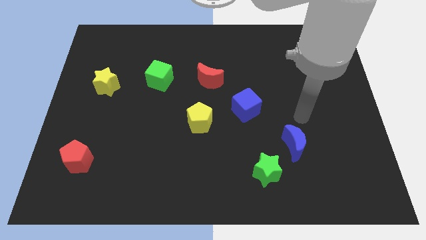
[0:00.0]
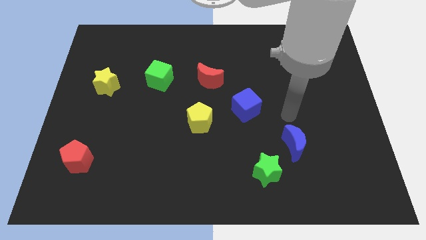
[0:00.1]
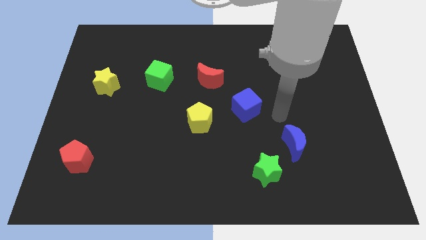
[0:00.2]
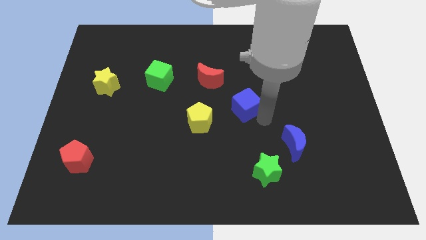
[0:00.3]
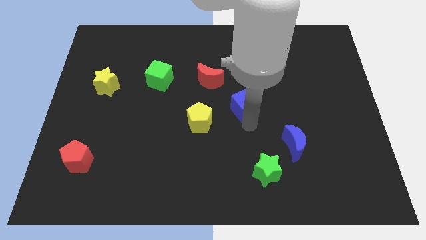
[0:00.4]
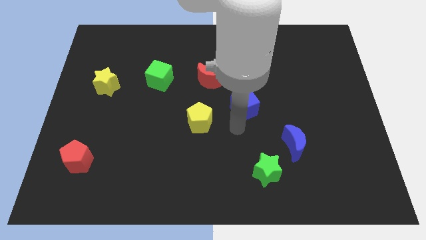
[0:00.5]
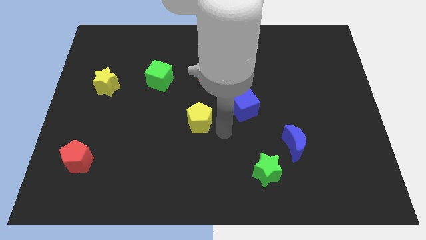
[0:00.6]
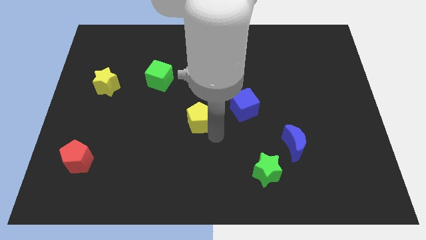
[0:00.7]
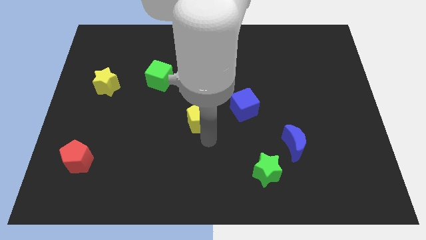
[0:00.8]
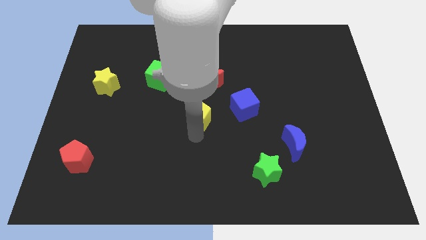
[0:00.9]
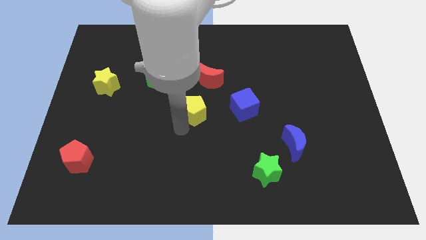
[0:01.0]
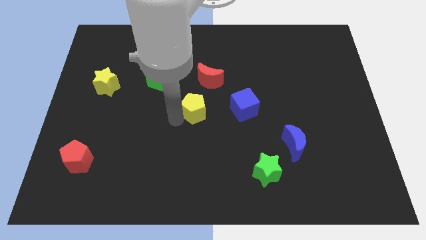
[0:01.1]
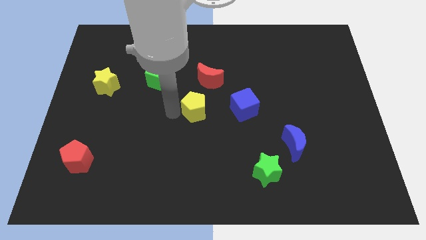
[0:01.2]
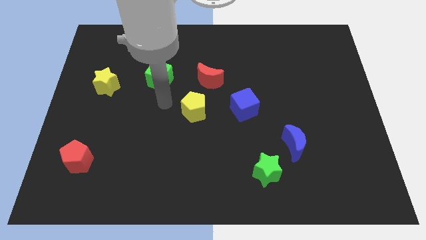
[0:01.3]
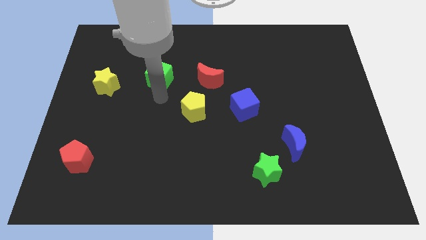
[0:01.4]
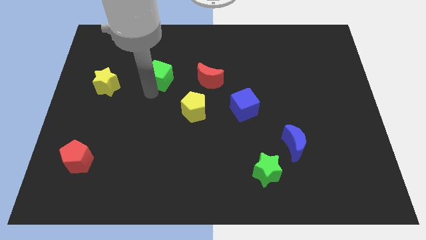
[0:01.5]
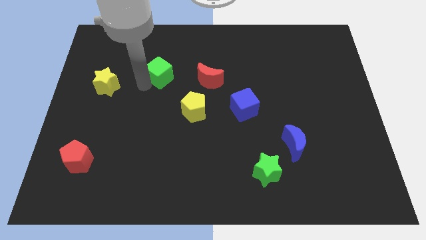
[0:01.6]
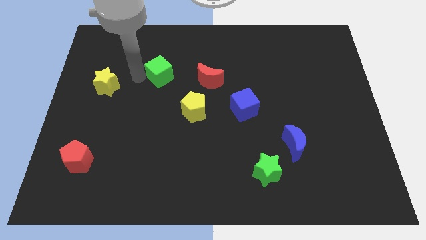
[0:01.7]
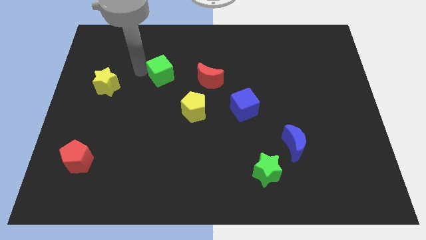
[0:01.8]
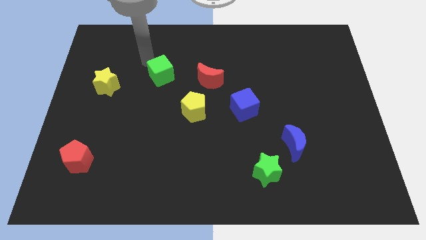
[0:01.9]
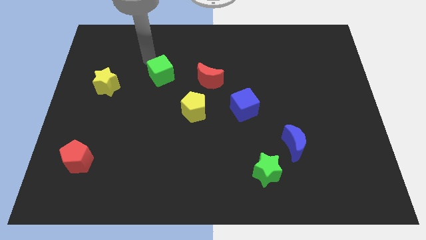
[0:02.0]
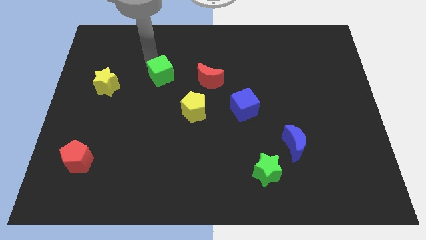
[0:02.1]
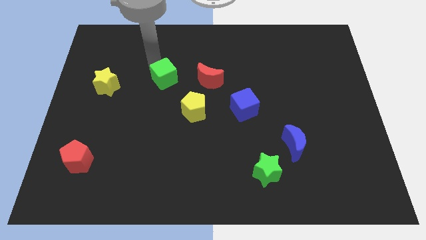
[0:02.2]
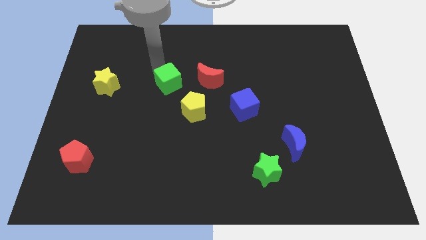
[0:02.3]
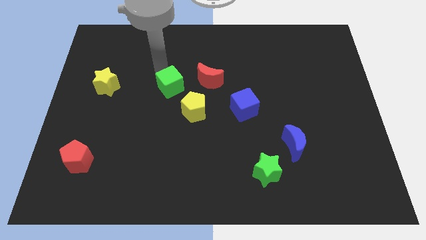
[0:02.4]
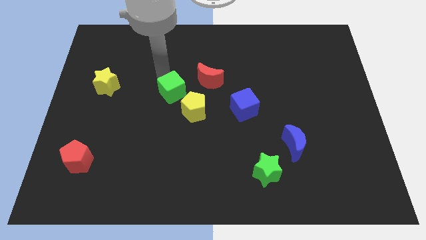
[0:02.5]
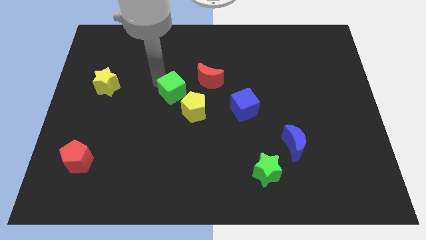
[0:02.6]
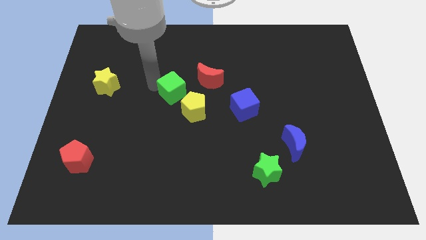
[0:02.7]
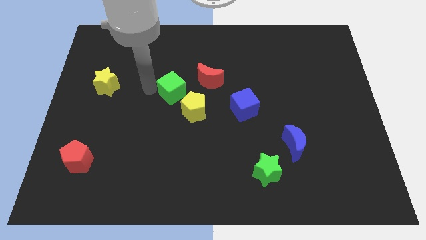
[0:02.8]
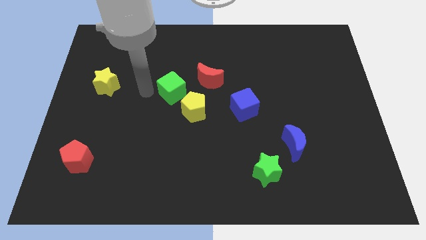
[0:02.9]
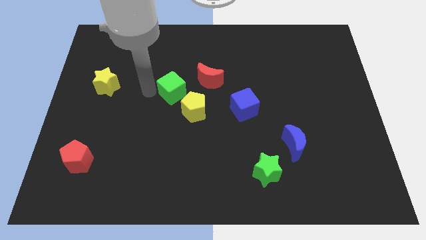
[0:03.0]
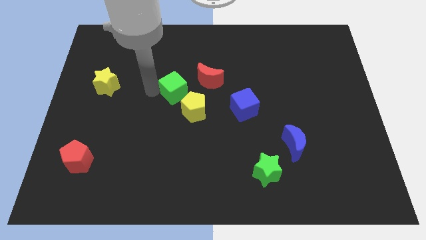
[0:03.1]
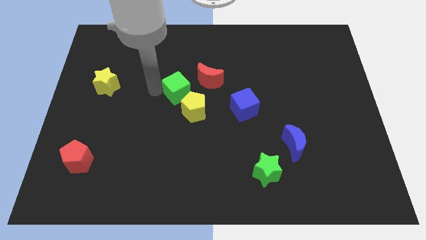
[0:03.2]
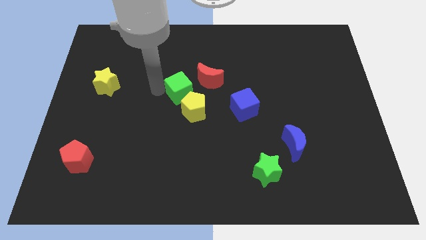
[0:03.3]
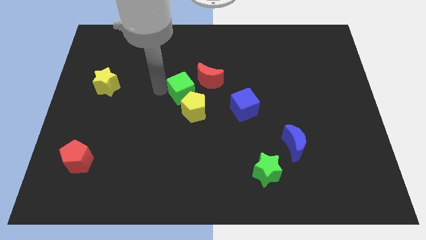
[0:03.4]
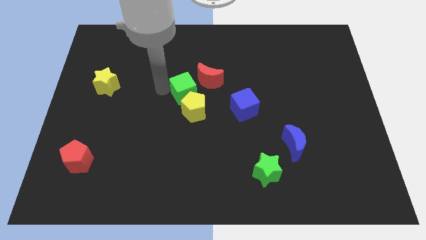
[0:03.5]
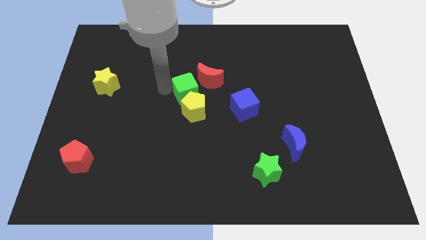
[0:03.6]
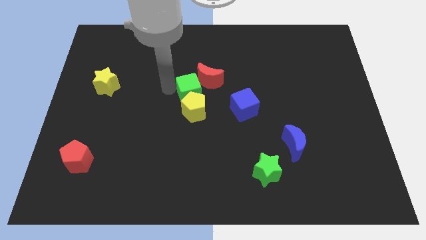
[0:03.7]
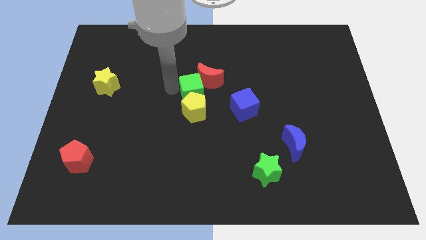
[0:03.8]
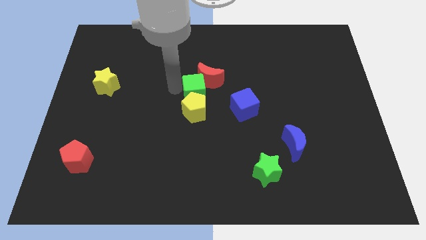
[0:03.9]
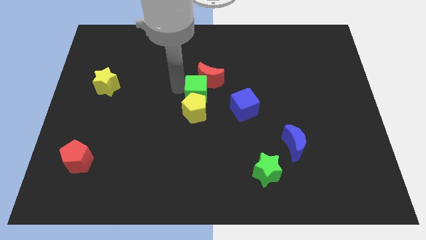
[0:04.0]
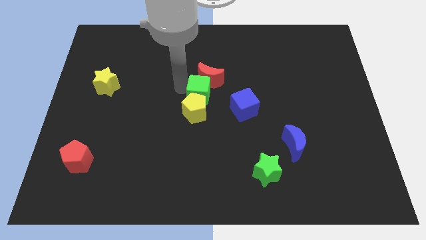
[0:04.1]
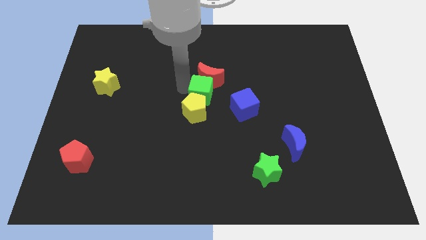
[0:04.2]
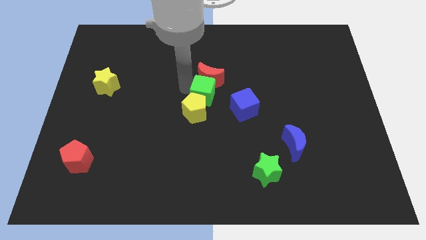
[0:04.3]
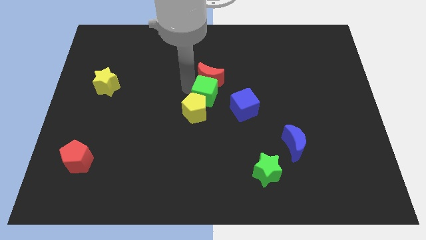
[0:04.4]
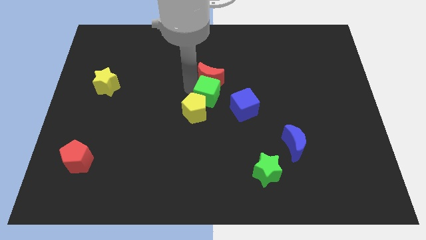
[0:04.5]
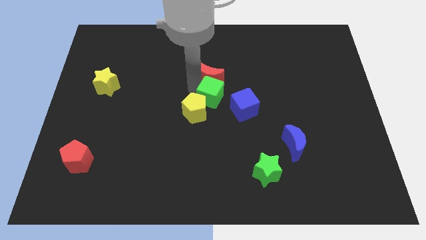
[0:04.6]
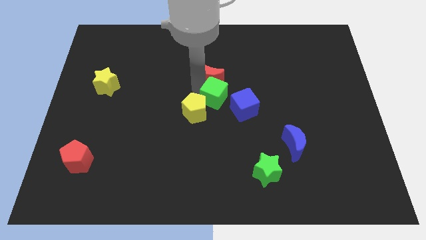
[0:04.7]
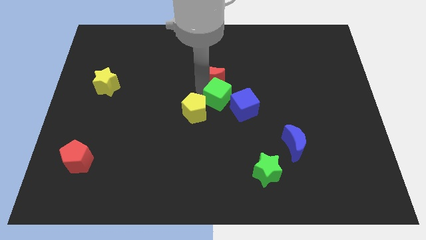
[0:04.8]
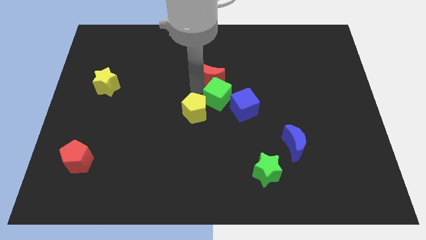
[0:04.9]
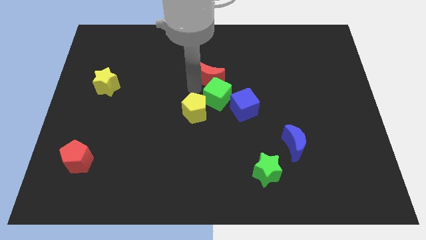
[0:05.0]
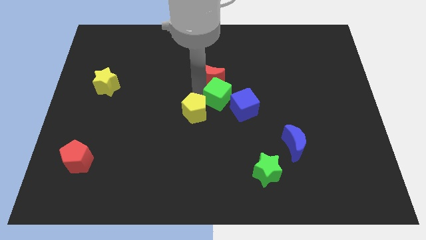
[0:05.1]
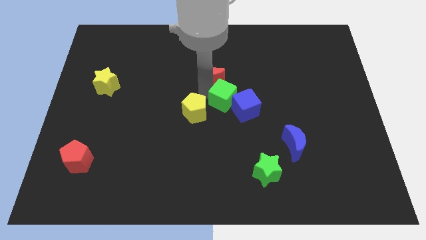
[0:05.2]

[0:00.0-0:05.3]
push the green cube to the blue cube

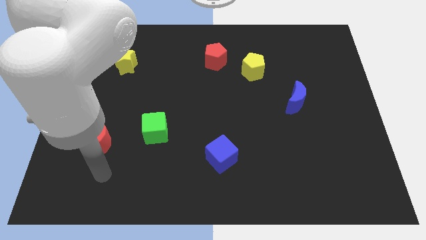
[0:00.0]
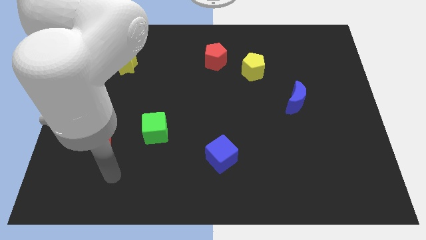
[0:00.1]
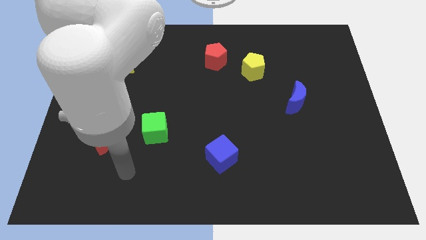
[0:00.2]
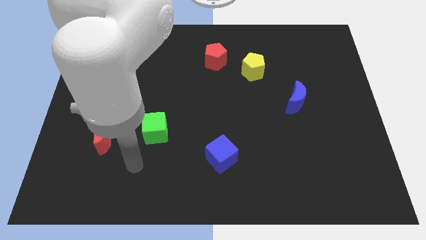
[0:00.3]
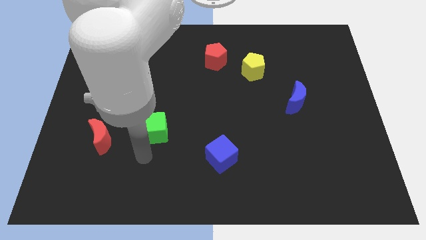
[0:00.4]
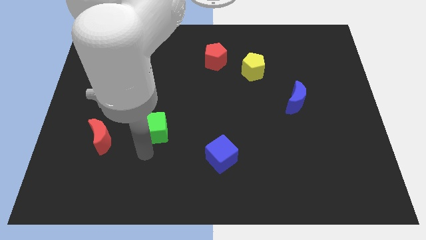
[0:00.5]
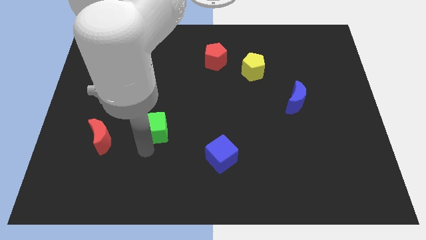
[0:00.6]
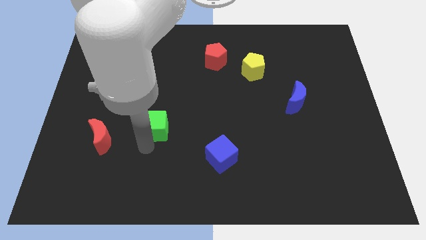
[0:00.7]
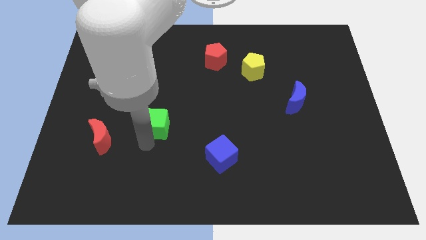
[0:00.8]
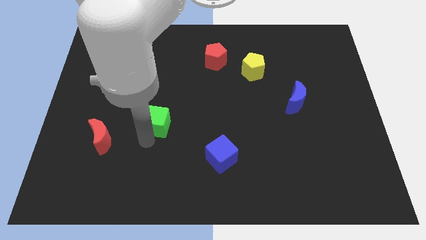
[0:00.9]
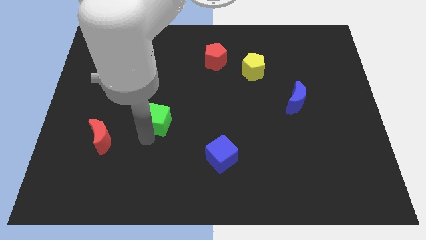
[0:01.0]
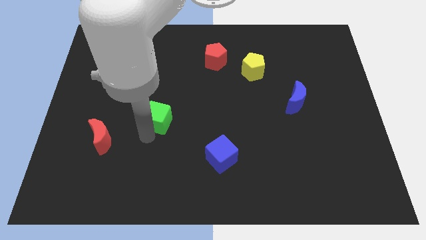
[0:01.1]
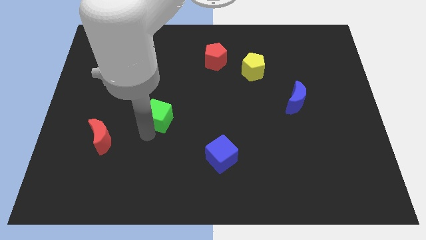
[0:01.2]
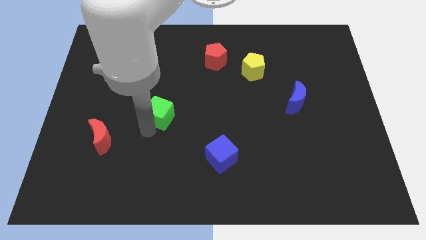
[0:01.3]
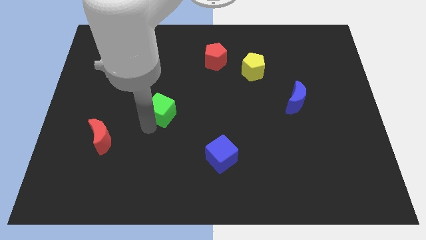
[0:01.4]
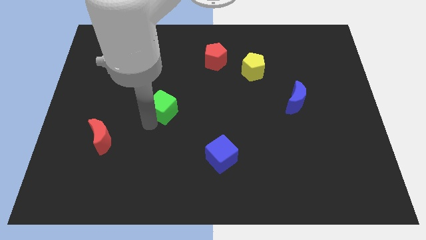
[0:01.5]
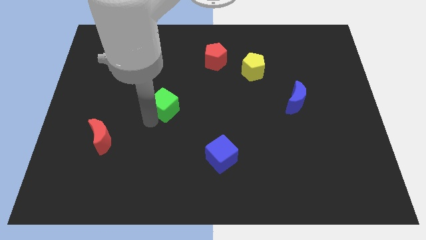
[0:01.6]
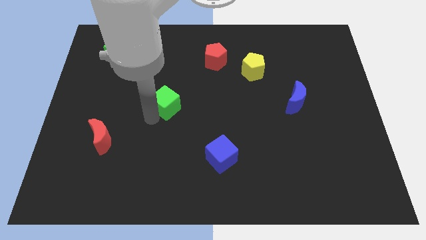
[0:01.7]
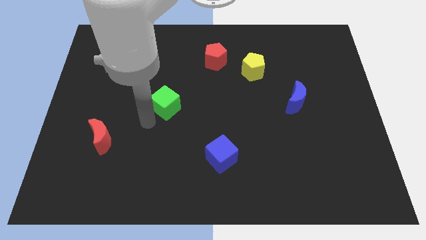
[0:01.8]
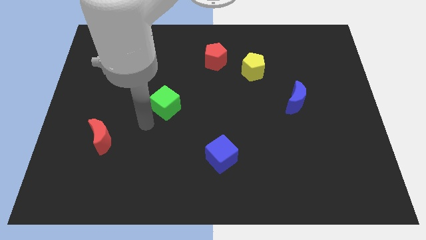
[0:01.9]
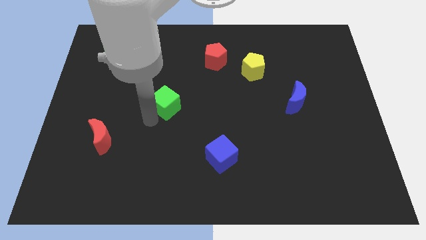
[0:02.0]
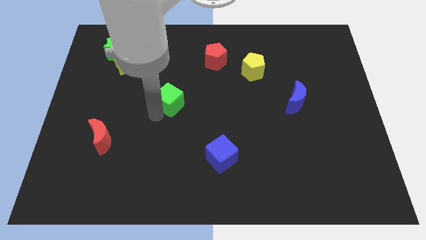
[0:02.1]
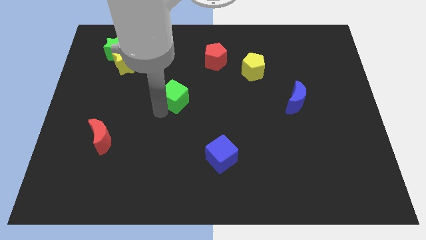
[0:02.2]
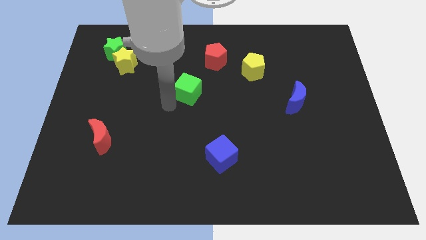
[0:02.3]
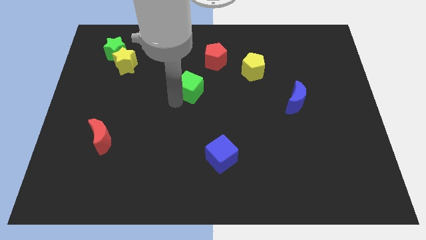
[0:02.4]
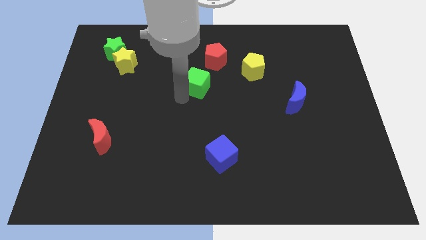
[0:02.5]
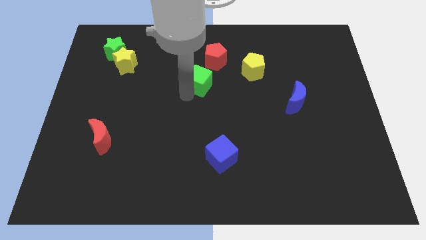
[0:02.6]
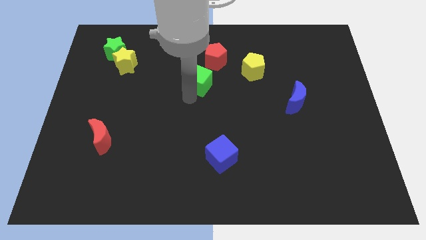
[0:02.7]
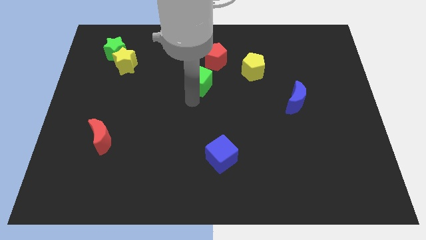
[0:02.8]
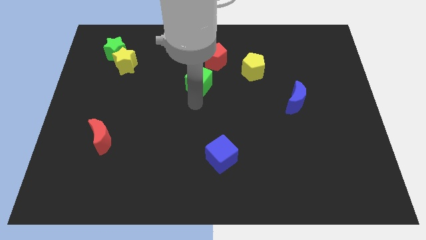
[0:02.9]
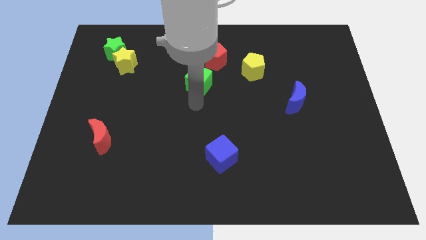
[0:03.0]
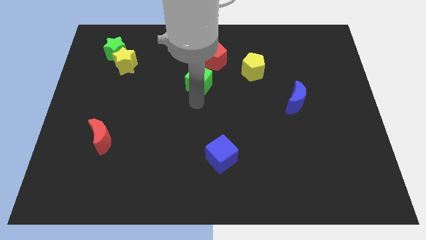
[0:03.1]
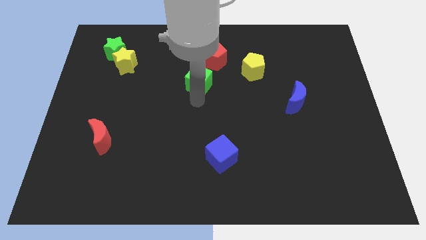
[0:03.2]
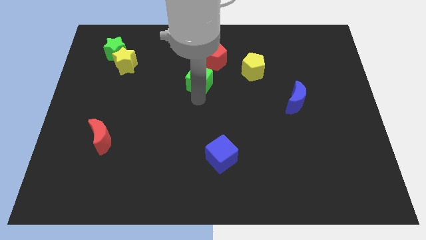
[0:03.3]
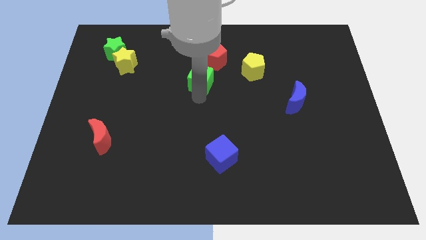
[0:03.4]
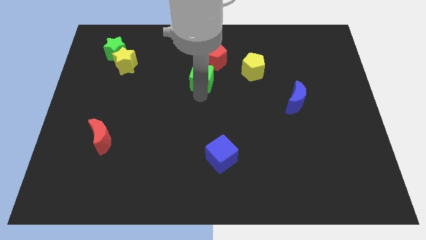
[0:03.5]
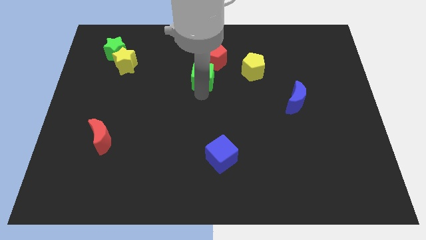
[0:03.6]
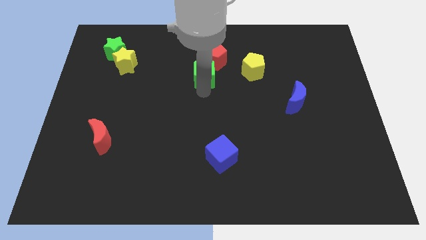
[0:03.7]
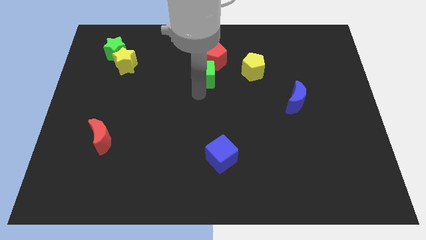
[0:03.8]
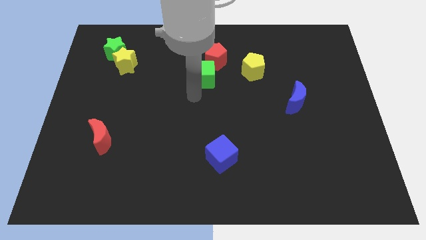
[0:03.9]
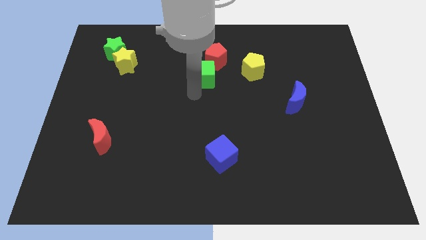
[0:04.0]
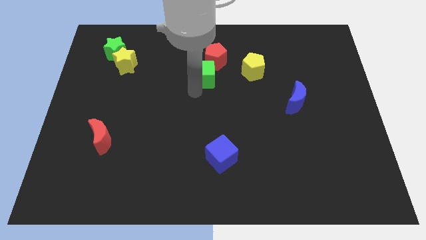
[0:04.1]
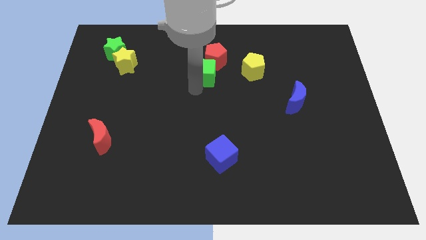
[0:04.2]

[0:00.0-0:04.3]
slide the green cube close to the red pentagon
